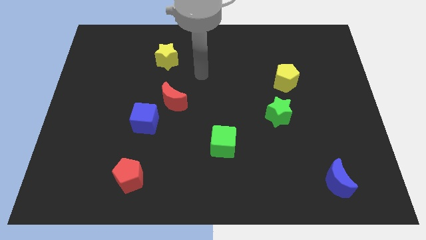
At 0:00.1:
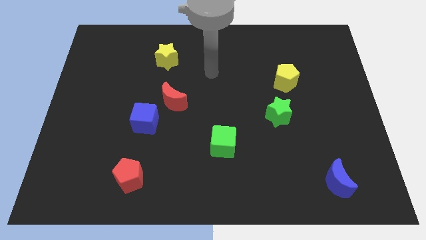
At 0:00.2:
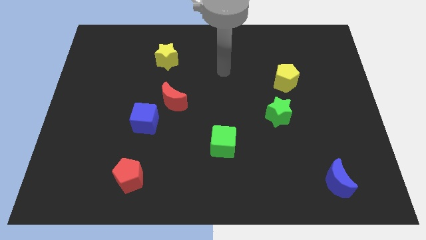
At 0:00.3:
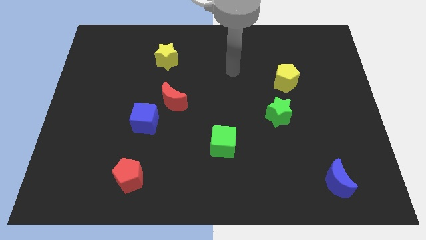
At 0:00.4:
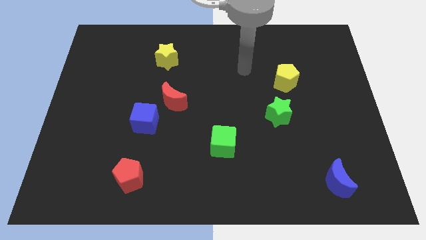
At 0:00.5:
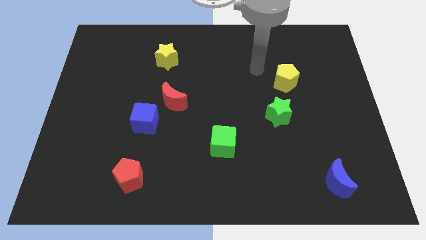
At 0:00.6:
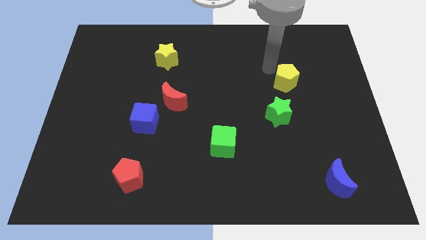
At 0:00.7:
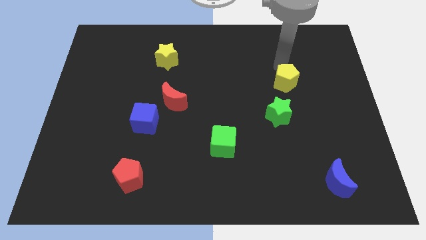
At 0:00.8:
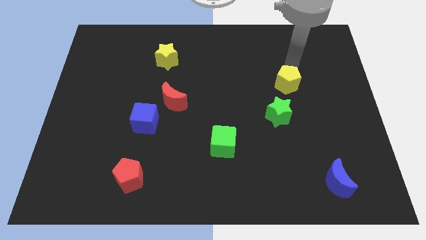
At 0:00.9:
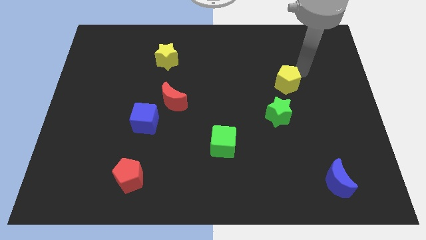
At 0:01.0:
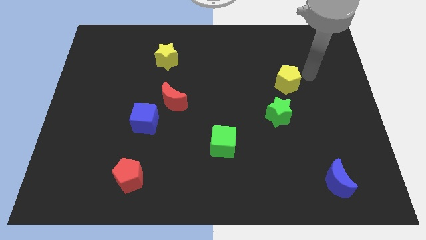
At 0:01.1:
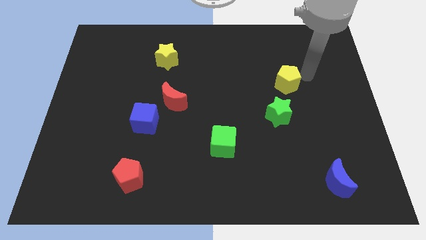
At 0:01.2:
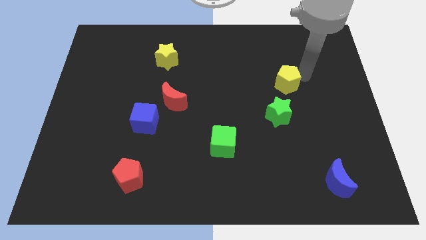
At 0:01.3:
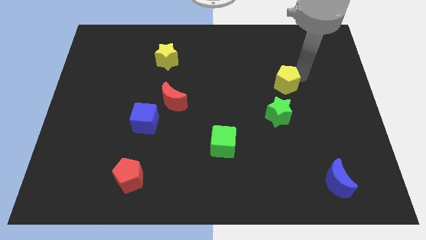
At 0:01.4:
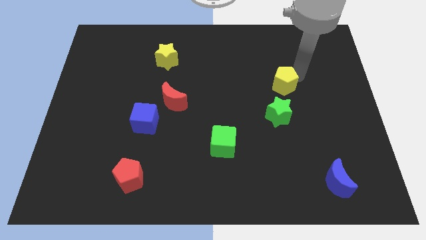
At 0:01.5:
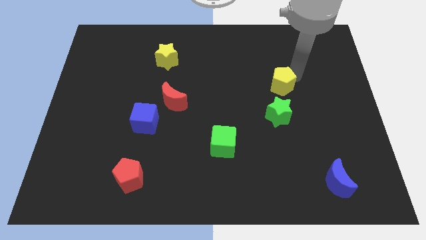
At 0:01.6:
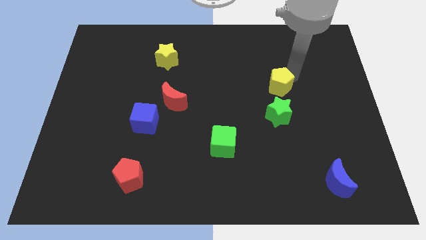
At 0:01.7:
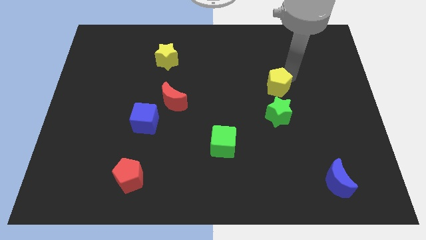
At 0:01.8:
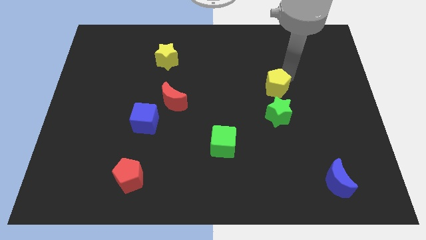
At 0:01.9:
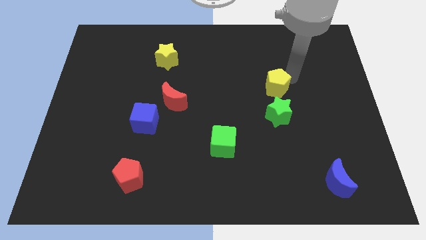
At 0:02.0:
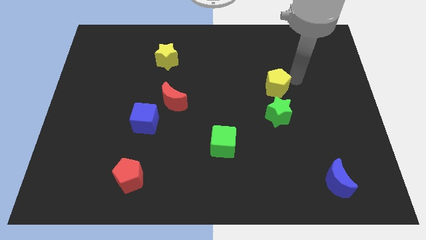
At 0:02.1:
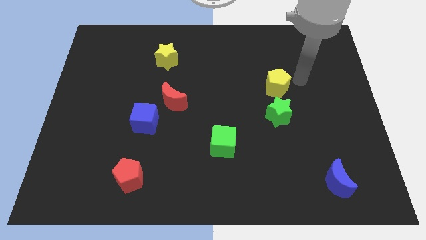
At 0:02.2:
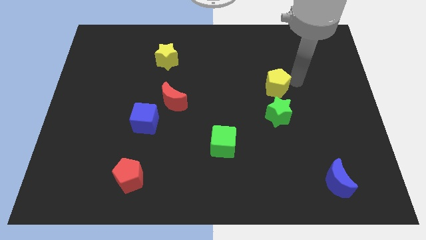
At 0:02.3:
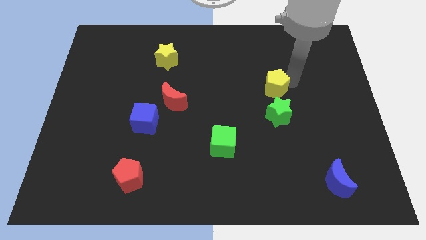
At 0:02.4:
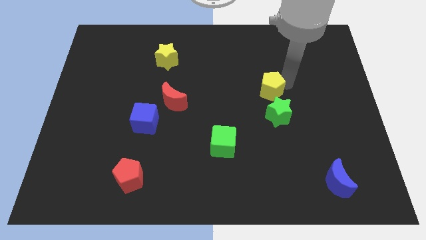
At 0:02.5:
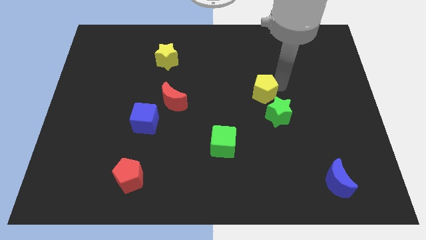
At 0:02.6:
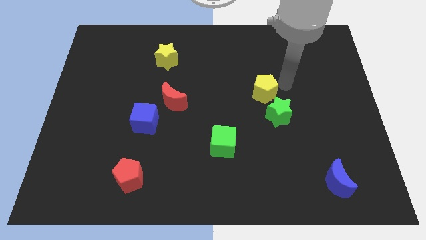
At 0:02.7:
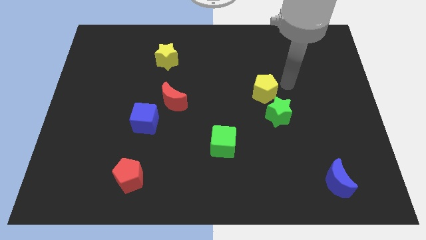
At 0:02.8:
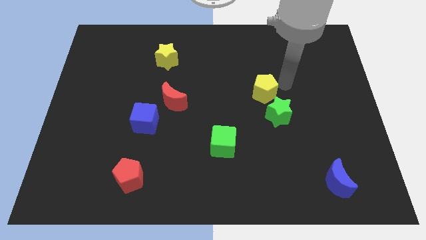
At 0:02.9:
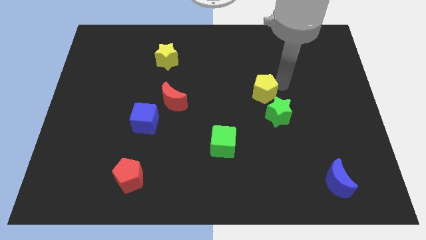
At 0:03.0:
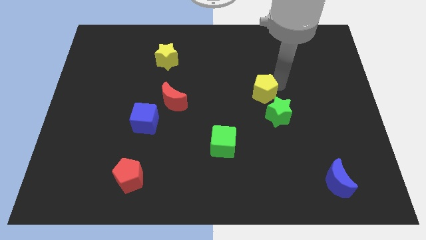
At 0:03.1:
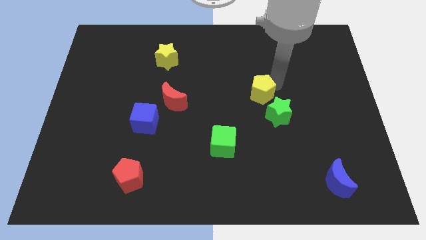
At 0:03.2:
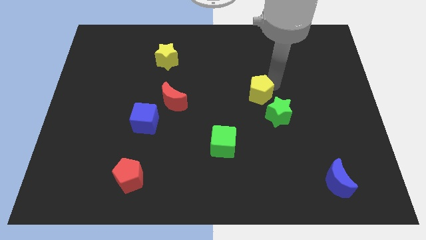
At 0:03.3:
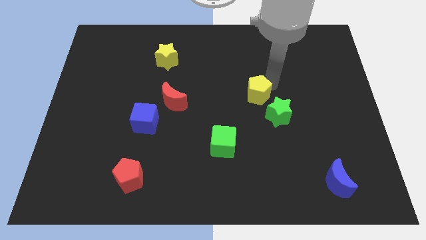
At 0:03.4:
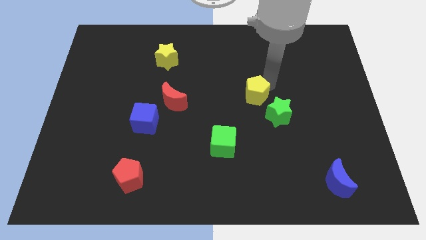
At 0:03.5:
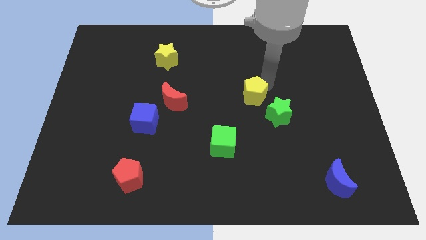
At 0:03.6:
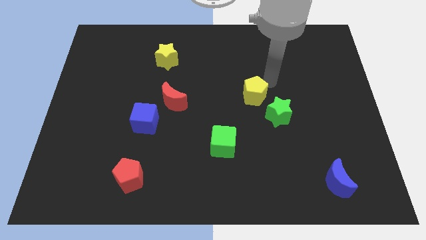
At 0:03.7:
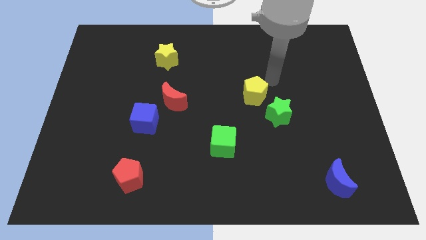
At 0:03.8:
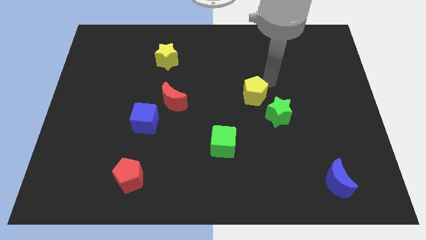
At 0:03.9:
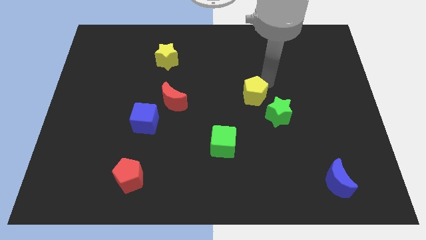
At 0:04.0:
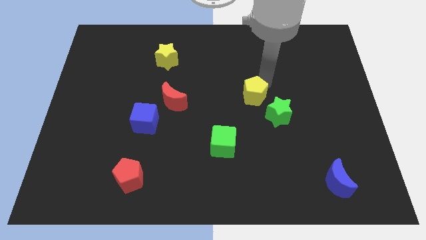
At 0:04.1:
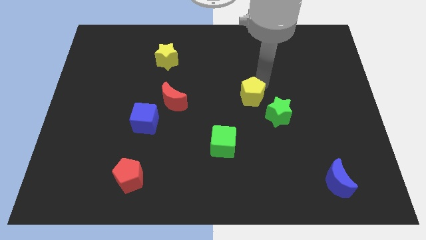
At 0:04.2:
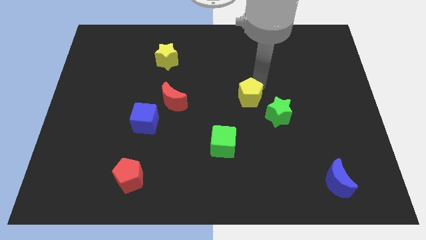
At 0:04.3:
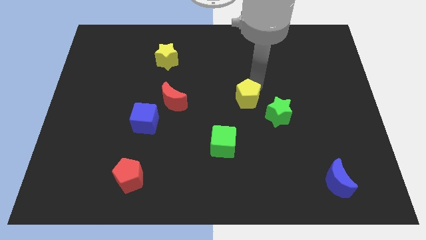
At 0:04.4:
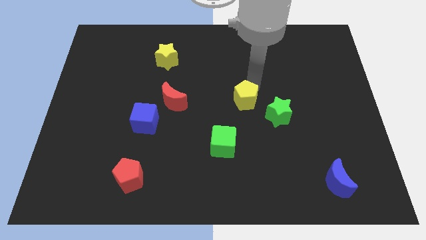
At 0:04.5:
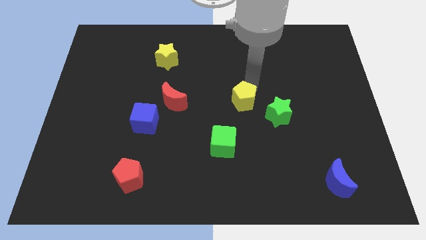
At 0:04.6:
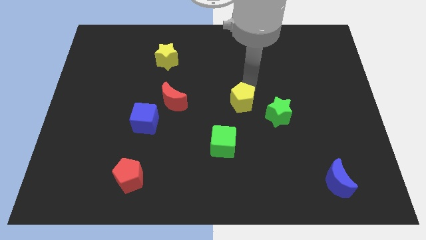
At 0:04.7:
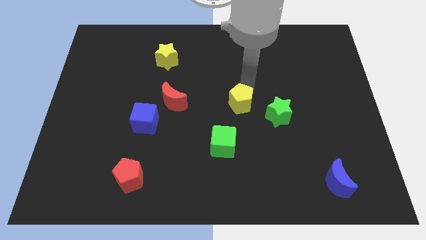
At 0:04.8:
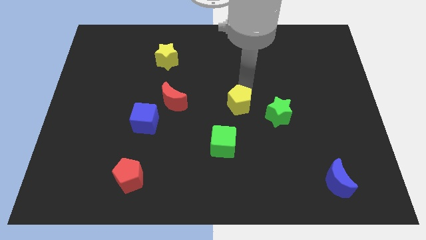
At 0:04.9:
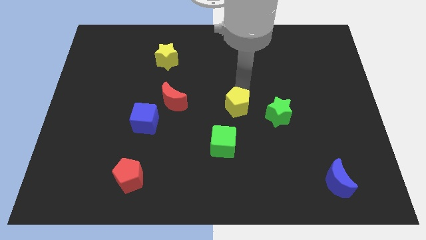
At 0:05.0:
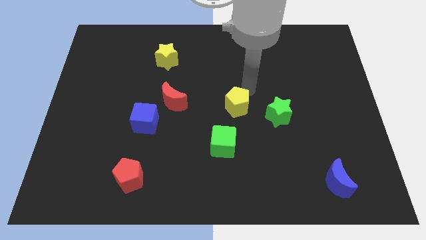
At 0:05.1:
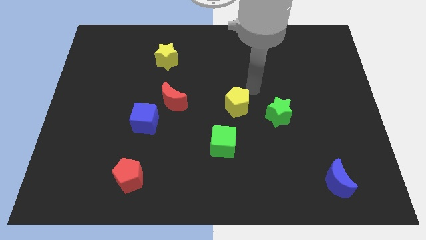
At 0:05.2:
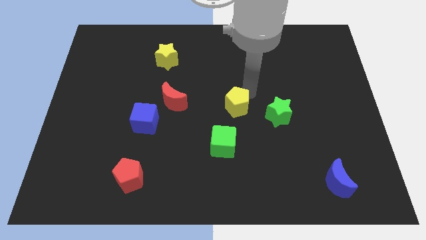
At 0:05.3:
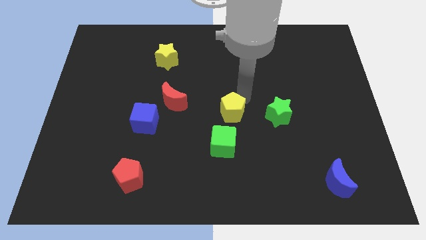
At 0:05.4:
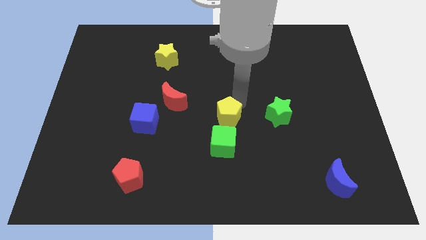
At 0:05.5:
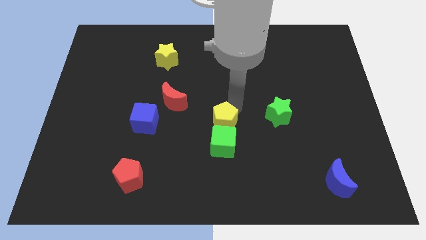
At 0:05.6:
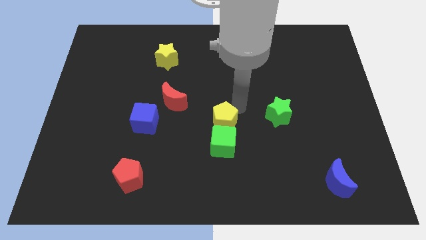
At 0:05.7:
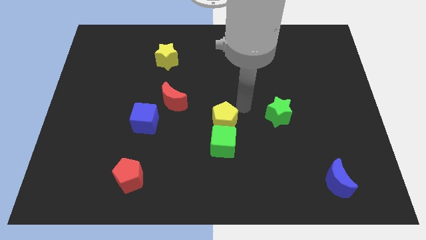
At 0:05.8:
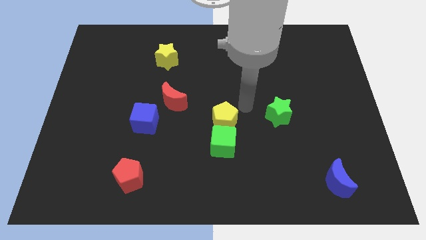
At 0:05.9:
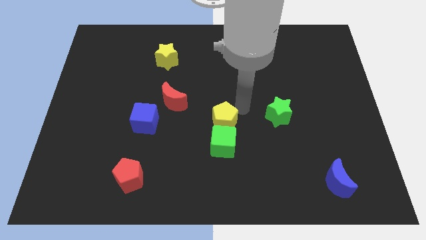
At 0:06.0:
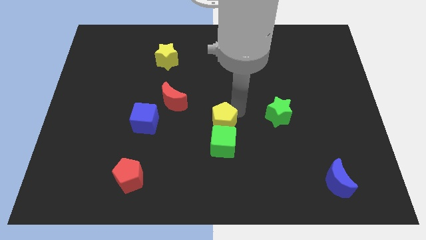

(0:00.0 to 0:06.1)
move the yellow pentagon downwards and to the left diagonally

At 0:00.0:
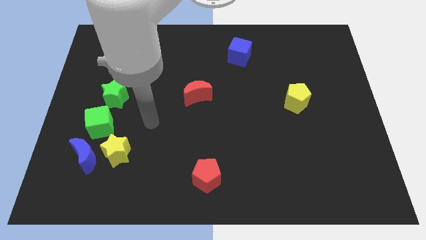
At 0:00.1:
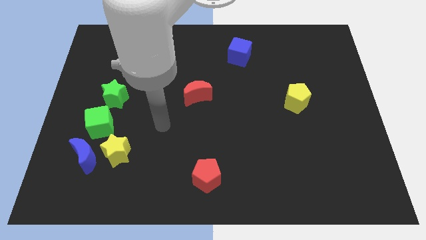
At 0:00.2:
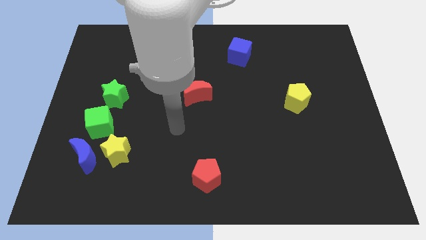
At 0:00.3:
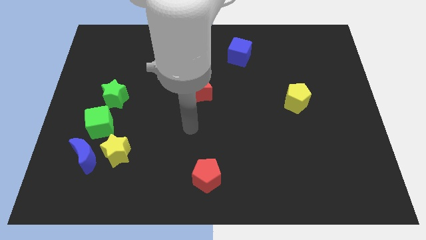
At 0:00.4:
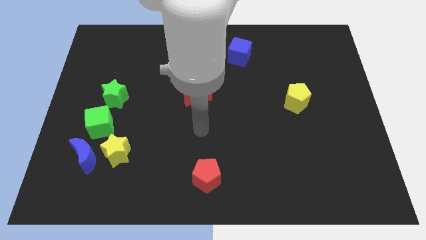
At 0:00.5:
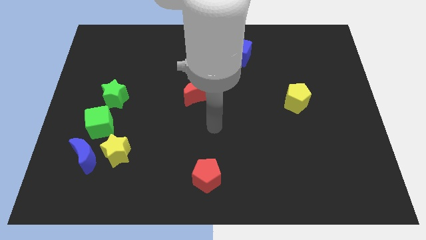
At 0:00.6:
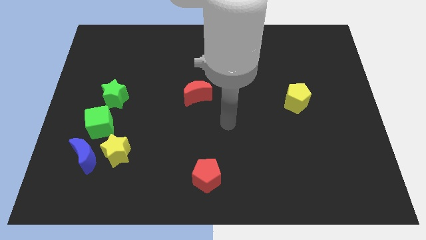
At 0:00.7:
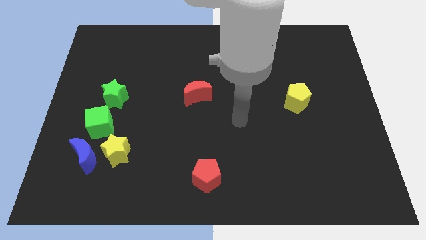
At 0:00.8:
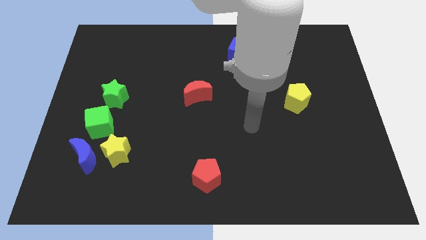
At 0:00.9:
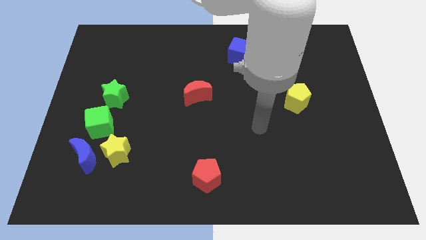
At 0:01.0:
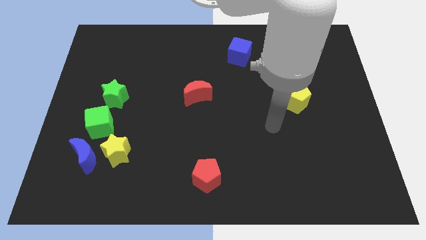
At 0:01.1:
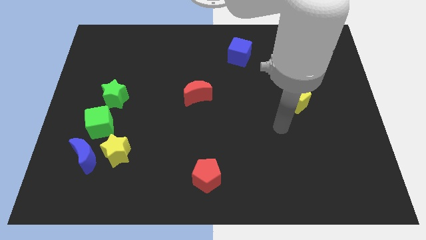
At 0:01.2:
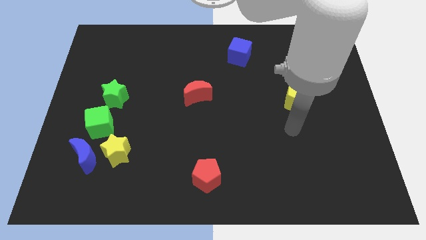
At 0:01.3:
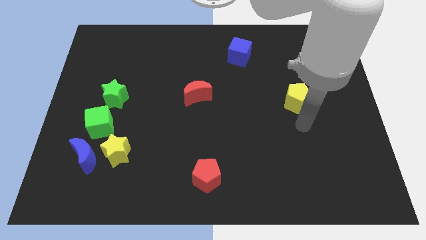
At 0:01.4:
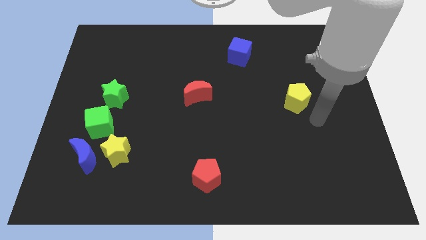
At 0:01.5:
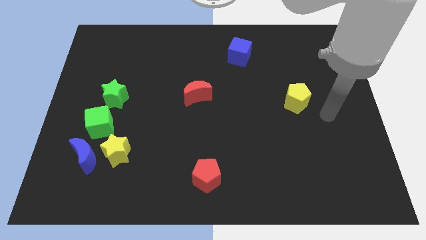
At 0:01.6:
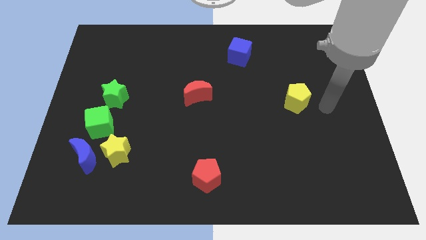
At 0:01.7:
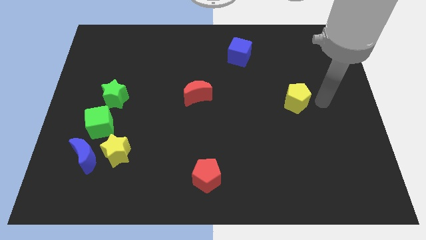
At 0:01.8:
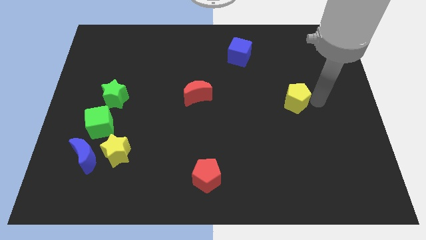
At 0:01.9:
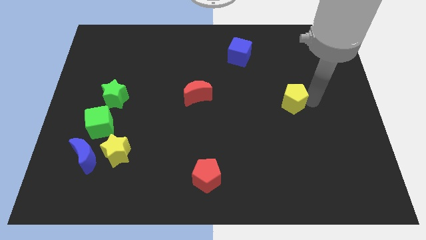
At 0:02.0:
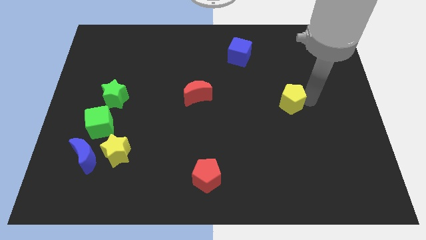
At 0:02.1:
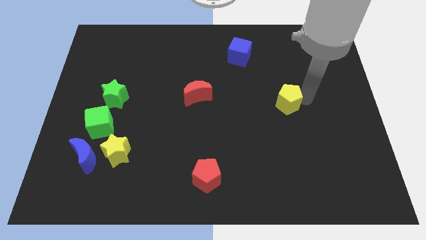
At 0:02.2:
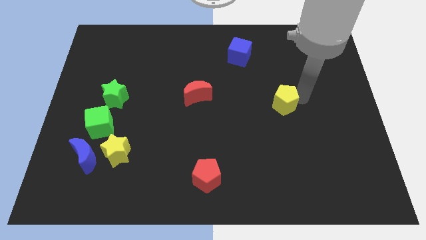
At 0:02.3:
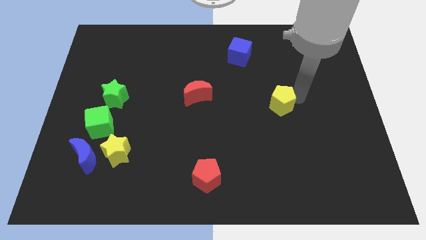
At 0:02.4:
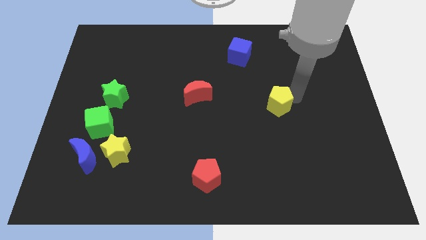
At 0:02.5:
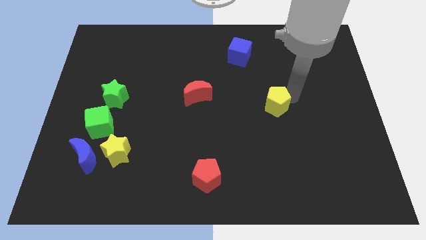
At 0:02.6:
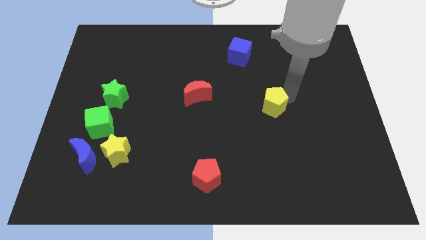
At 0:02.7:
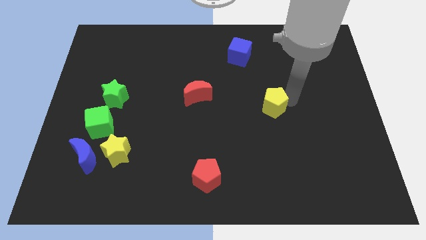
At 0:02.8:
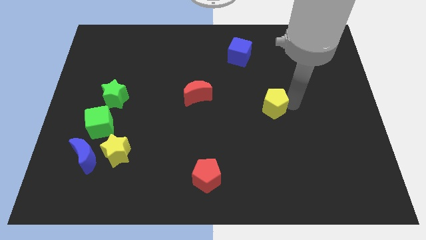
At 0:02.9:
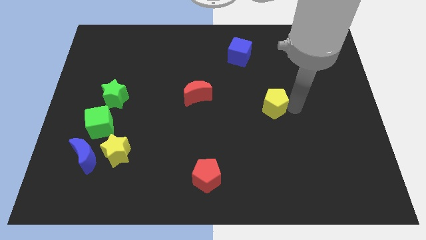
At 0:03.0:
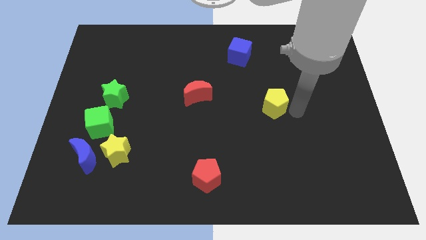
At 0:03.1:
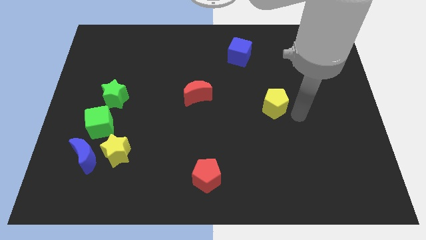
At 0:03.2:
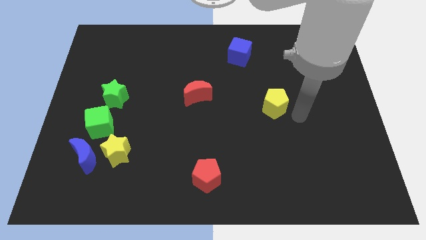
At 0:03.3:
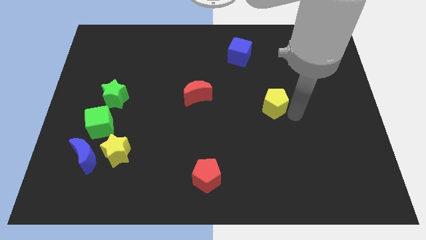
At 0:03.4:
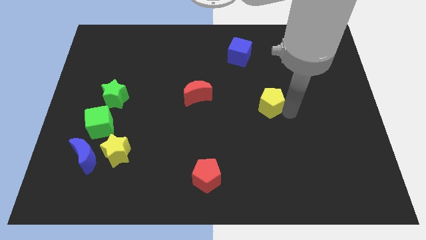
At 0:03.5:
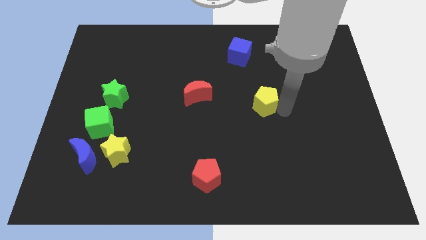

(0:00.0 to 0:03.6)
slightly slide the yellow pentagon left
